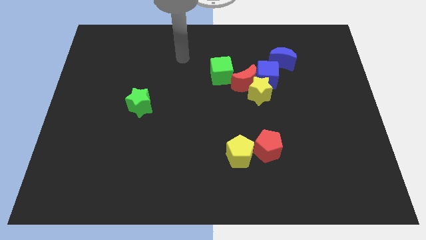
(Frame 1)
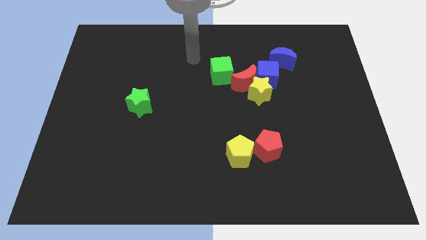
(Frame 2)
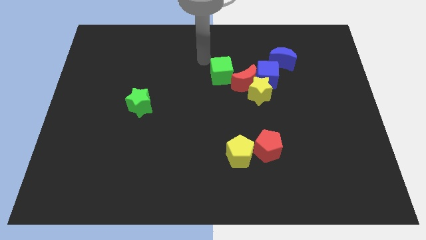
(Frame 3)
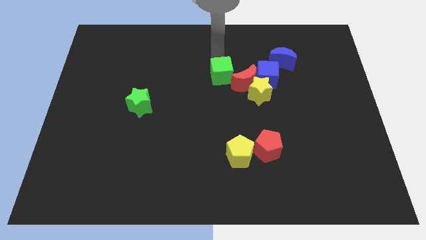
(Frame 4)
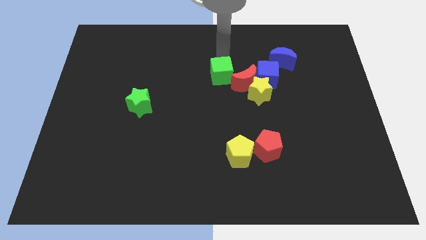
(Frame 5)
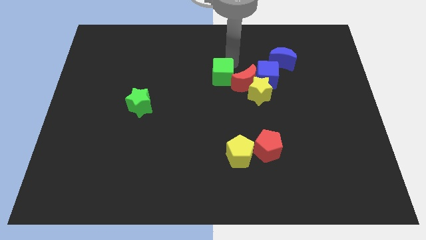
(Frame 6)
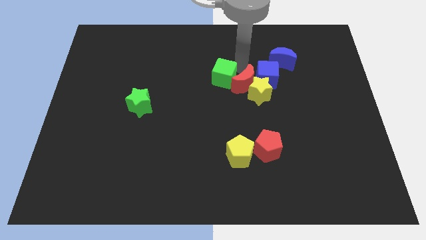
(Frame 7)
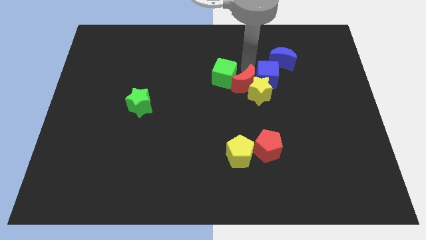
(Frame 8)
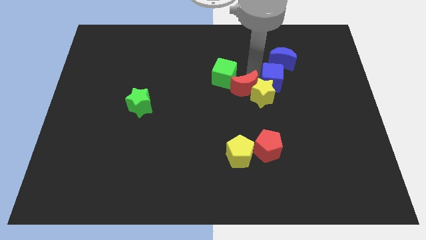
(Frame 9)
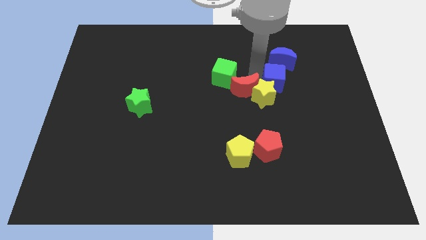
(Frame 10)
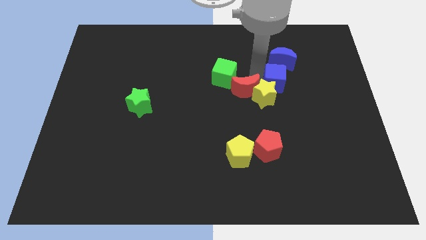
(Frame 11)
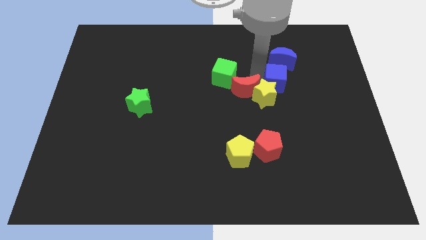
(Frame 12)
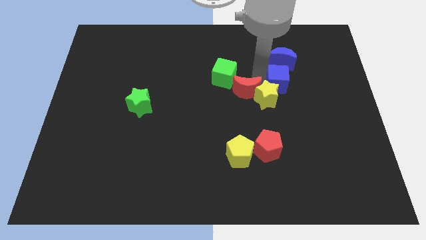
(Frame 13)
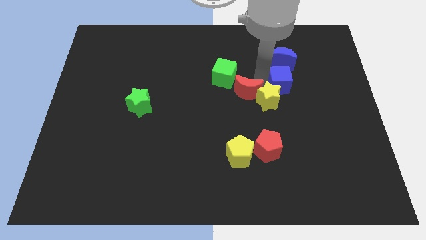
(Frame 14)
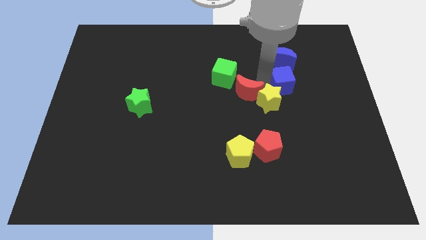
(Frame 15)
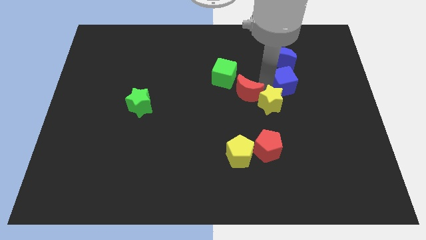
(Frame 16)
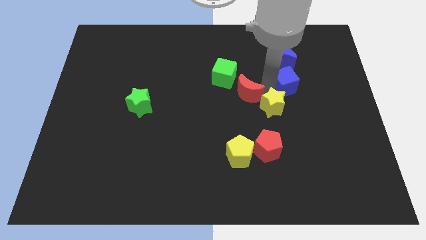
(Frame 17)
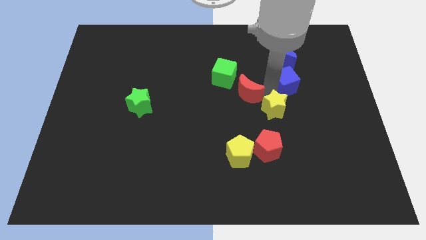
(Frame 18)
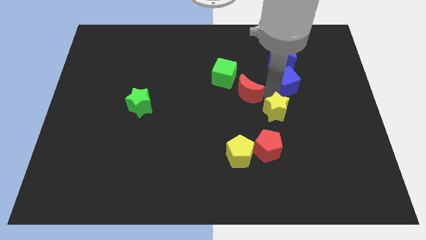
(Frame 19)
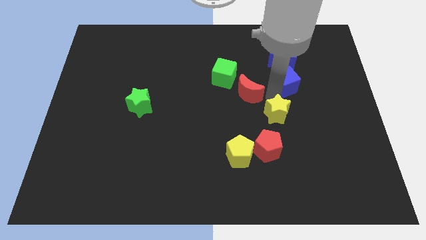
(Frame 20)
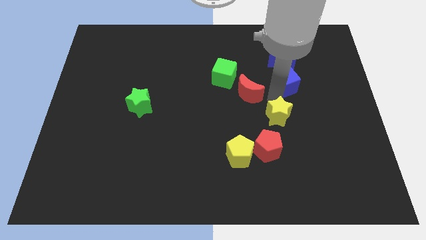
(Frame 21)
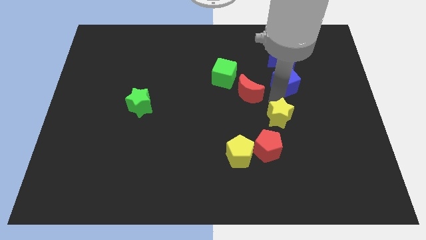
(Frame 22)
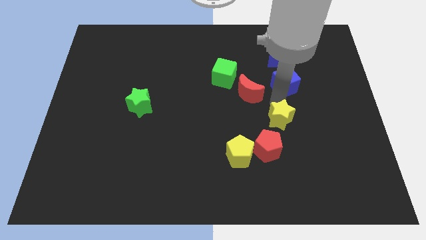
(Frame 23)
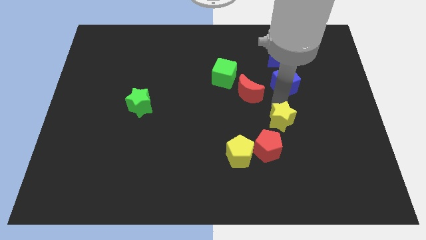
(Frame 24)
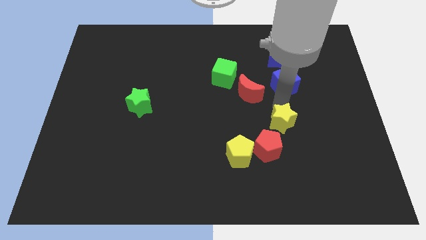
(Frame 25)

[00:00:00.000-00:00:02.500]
separate the yellow star from the red moon and blue cube

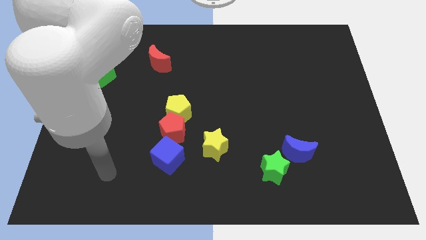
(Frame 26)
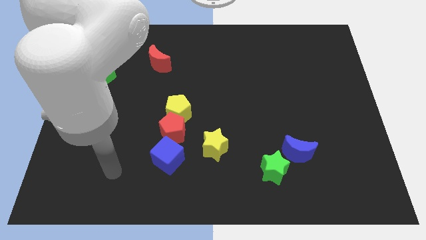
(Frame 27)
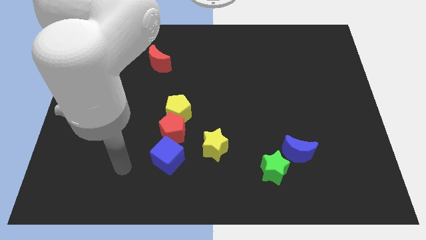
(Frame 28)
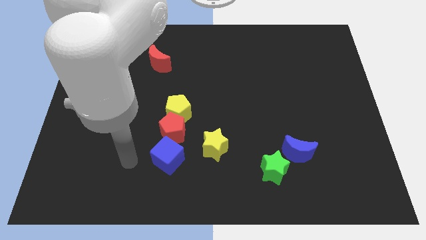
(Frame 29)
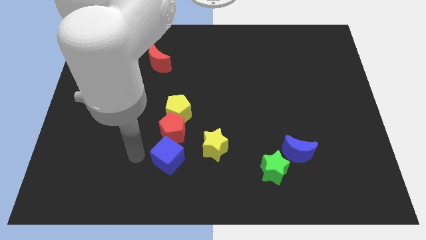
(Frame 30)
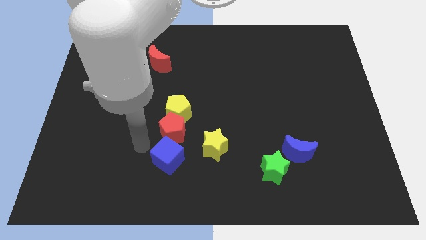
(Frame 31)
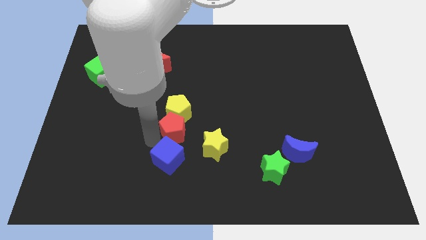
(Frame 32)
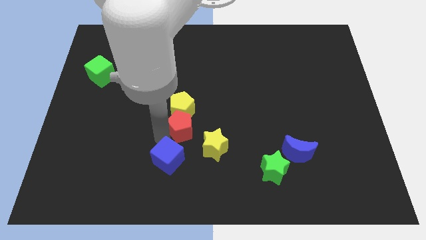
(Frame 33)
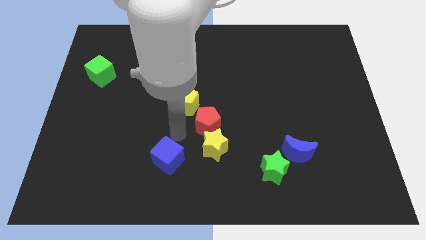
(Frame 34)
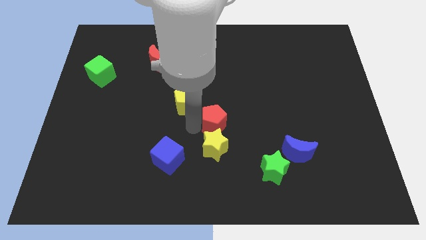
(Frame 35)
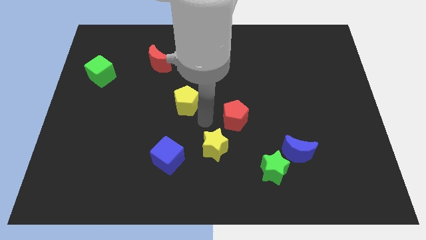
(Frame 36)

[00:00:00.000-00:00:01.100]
separate the yellow pentagon from the red pentagon

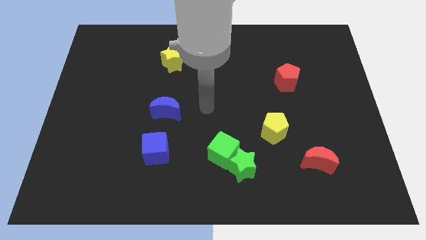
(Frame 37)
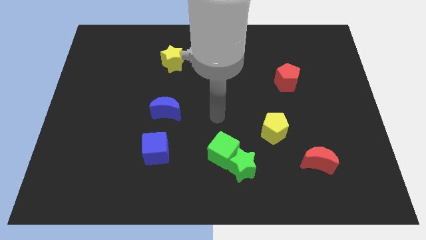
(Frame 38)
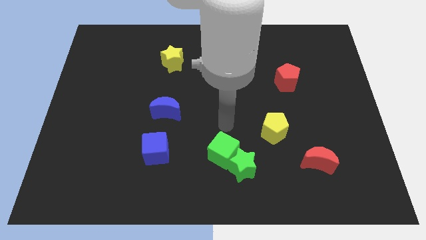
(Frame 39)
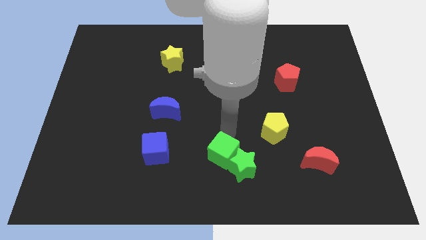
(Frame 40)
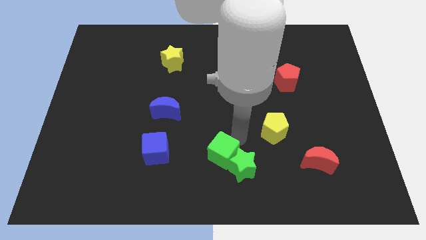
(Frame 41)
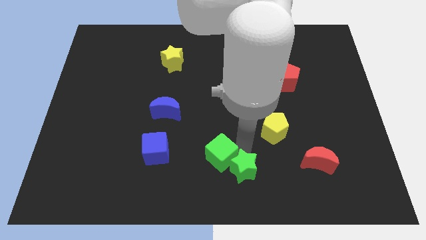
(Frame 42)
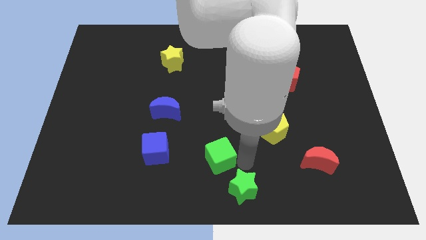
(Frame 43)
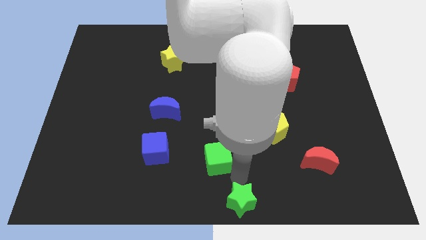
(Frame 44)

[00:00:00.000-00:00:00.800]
move the green cube away from the green star

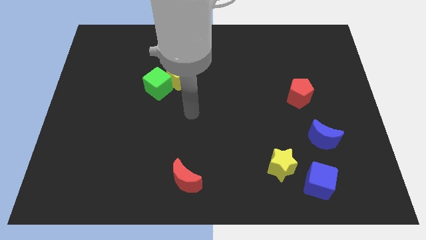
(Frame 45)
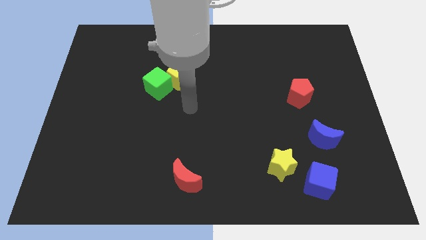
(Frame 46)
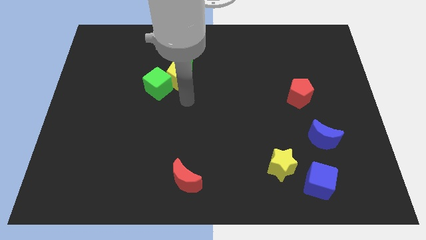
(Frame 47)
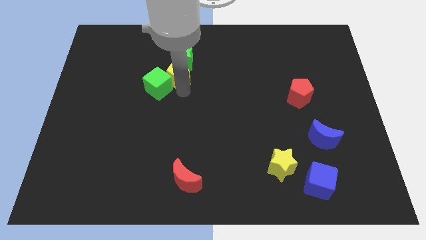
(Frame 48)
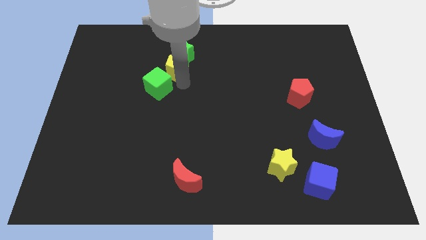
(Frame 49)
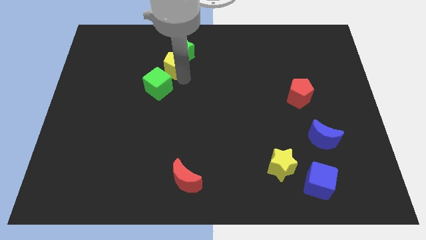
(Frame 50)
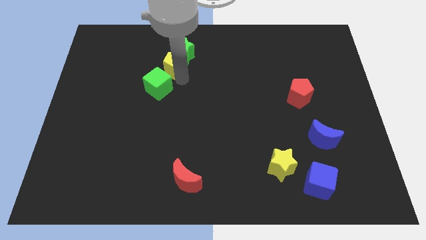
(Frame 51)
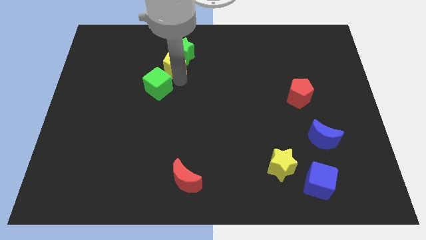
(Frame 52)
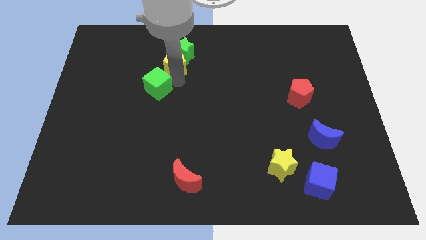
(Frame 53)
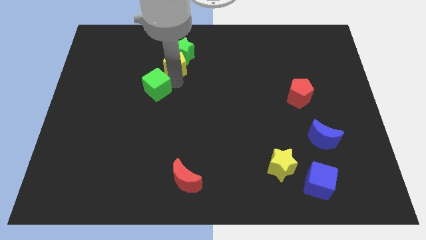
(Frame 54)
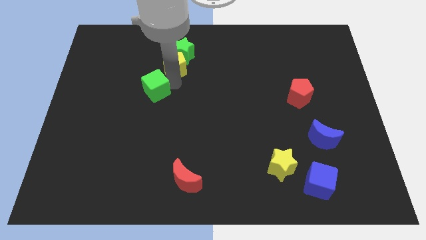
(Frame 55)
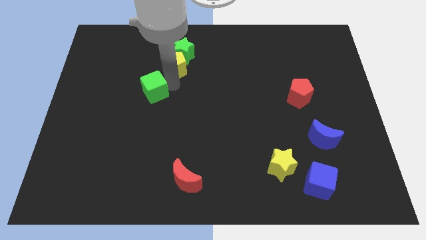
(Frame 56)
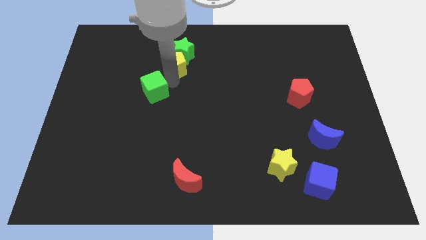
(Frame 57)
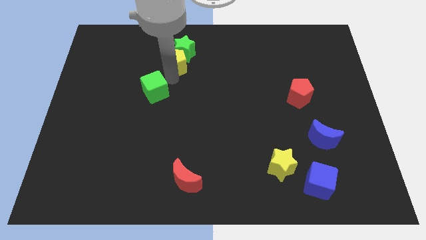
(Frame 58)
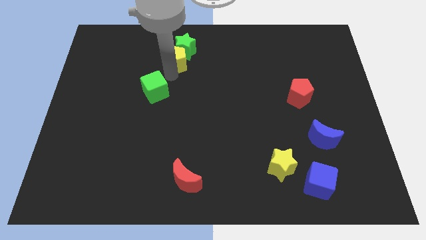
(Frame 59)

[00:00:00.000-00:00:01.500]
move the green cube away from the yellow pentagon

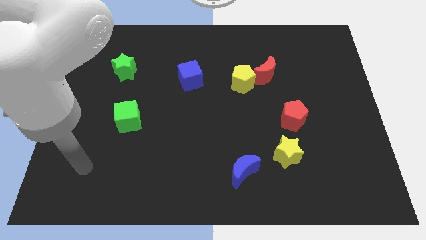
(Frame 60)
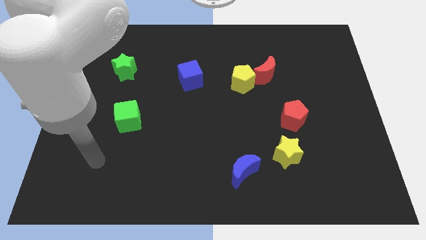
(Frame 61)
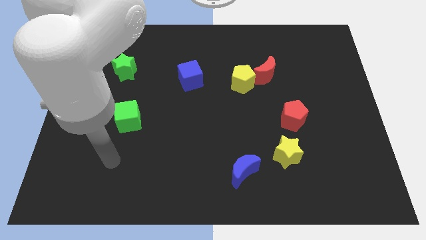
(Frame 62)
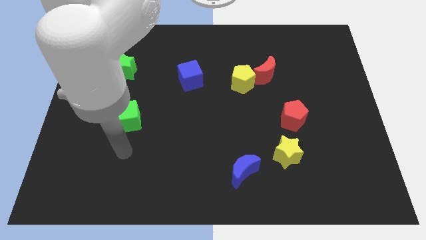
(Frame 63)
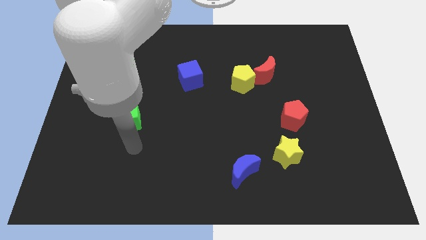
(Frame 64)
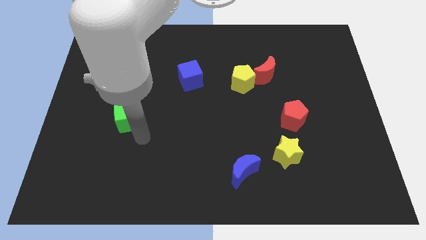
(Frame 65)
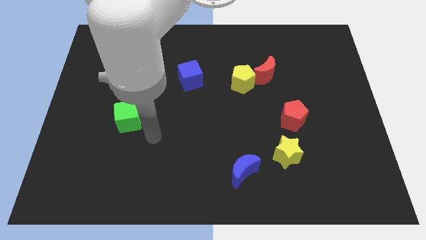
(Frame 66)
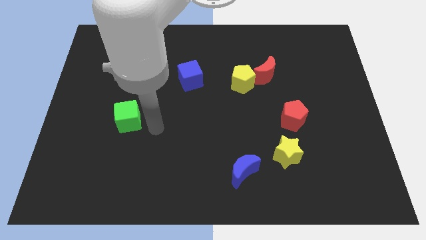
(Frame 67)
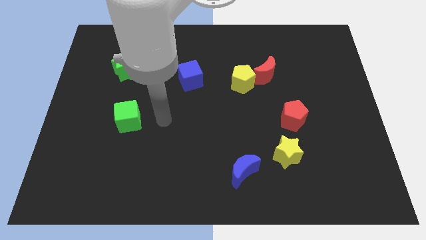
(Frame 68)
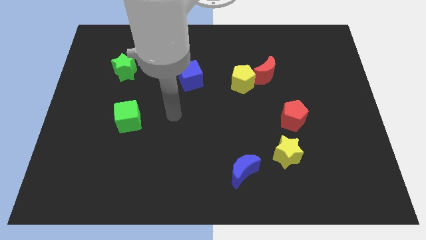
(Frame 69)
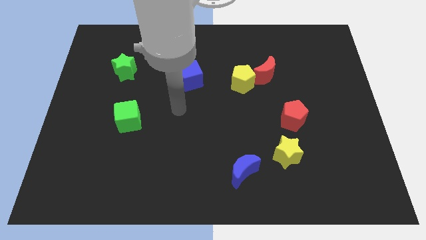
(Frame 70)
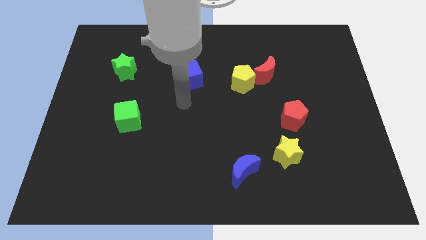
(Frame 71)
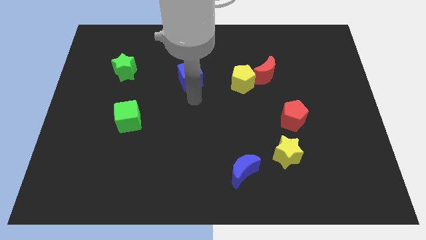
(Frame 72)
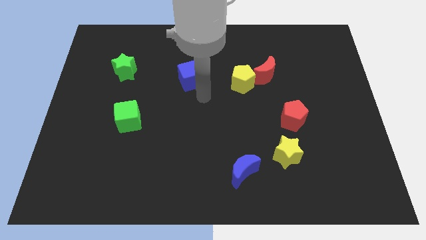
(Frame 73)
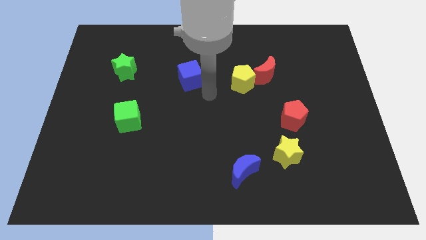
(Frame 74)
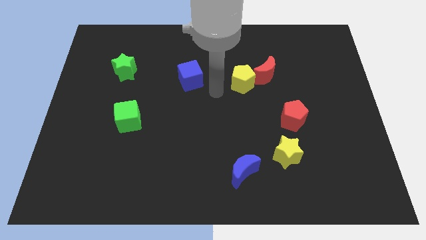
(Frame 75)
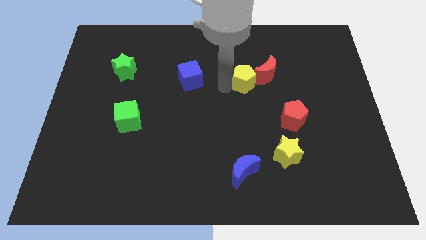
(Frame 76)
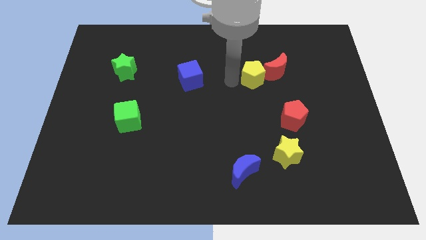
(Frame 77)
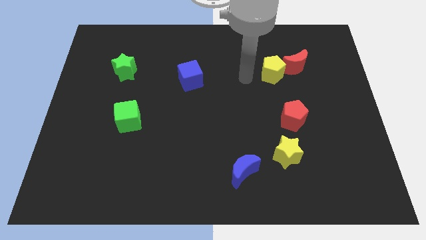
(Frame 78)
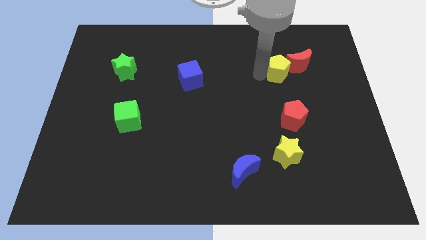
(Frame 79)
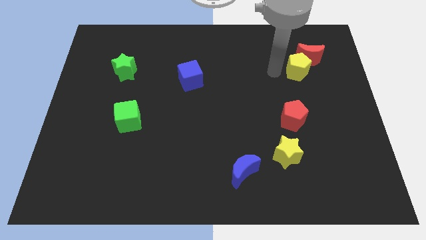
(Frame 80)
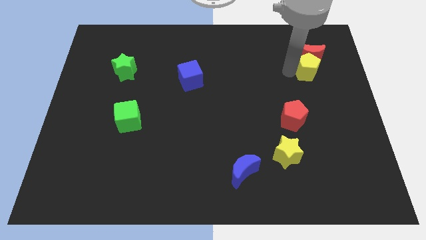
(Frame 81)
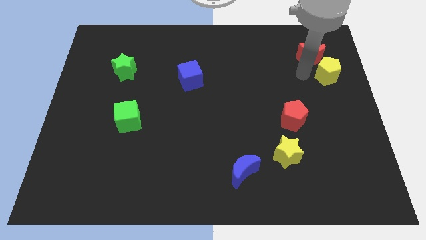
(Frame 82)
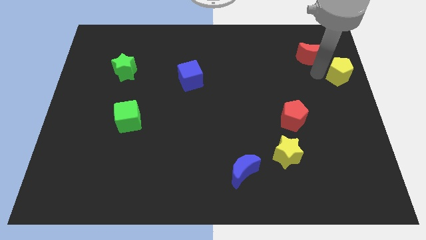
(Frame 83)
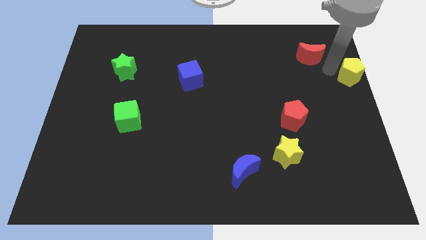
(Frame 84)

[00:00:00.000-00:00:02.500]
pull the red moon apart from the yellow pentagon

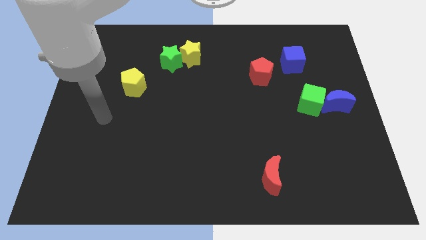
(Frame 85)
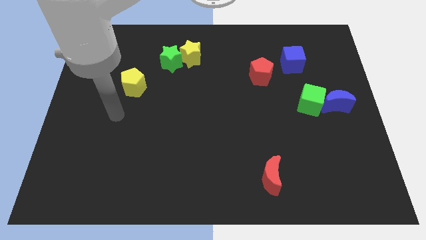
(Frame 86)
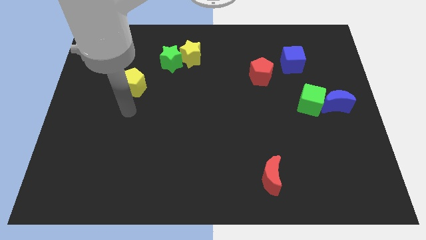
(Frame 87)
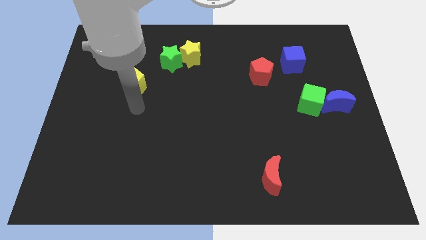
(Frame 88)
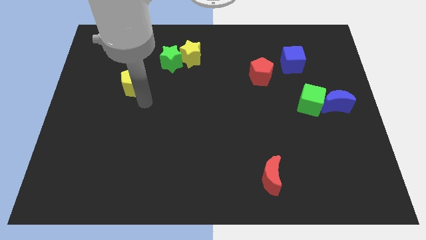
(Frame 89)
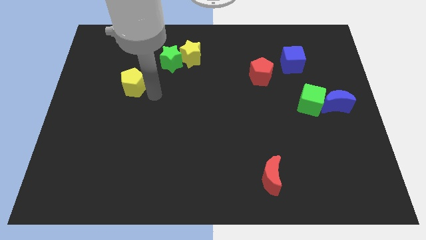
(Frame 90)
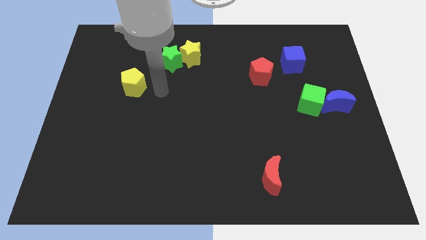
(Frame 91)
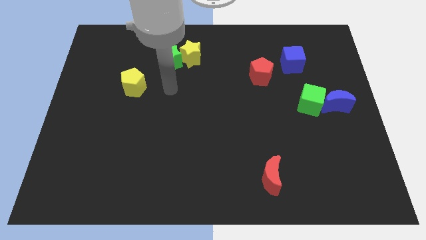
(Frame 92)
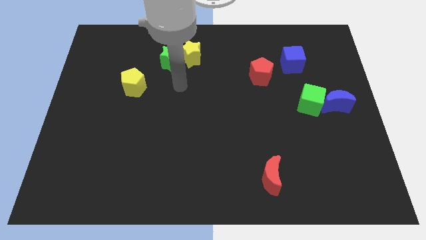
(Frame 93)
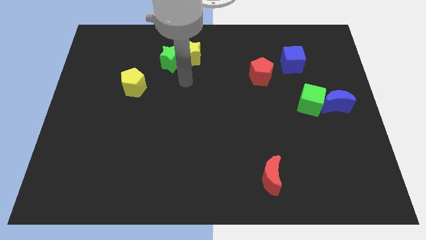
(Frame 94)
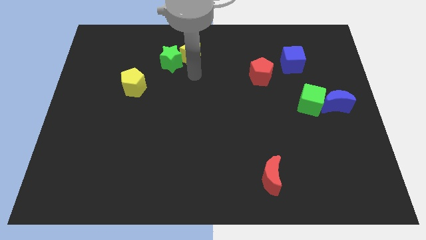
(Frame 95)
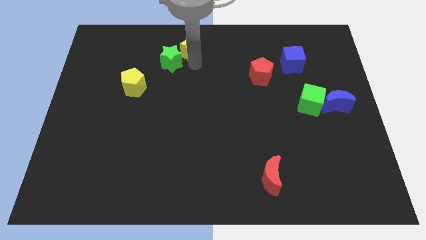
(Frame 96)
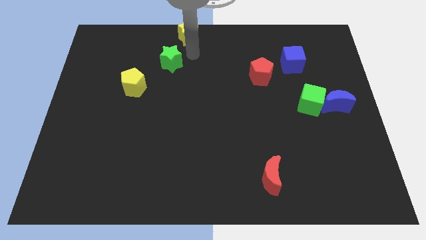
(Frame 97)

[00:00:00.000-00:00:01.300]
pull the green star apart from the yellow star
